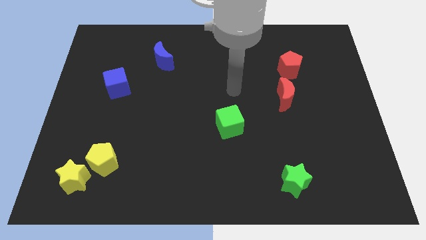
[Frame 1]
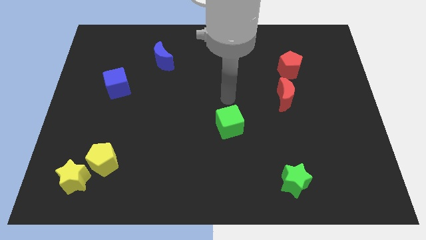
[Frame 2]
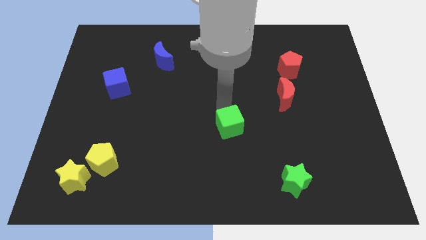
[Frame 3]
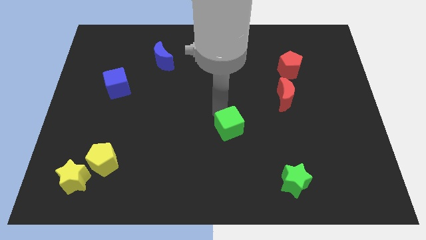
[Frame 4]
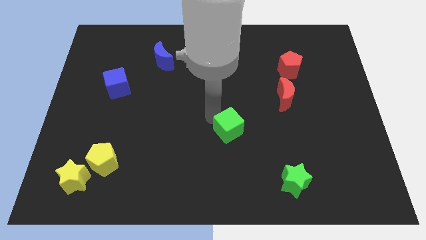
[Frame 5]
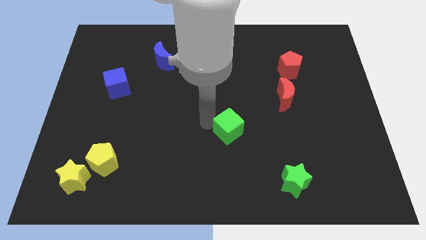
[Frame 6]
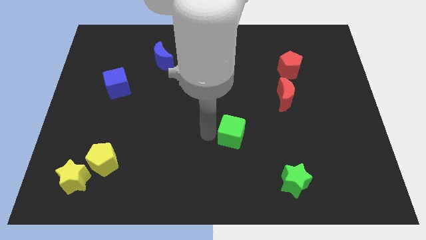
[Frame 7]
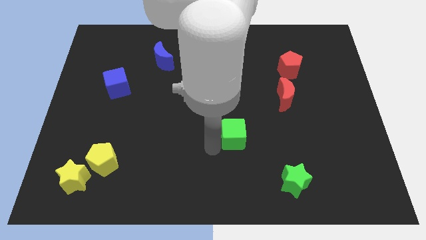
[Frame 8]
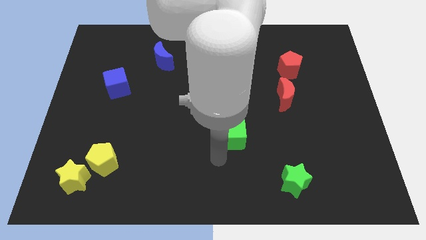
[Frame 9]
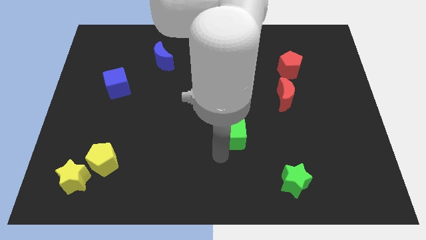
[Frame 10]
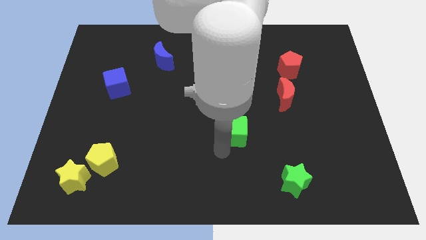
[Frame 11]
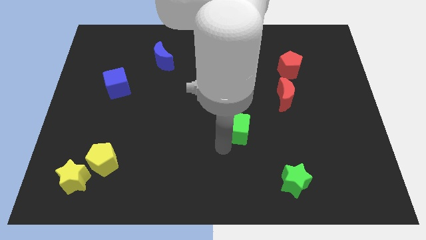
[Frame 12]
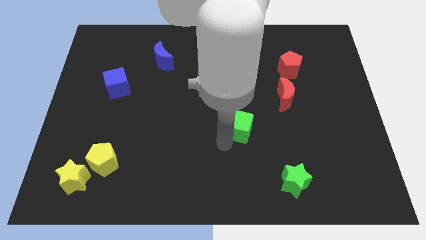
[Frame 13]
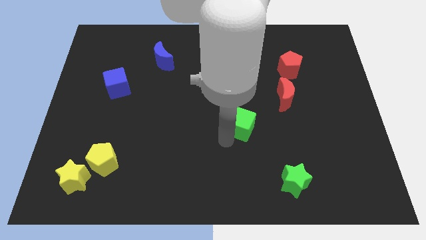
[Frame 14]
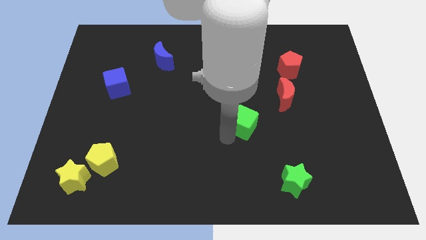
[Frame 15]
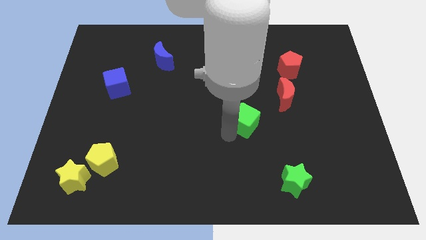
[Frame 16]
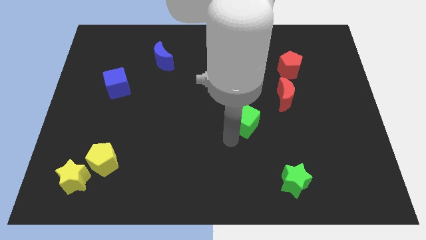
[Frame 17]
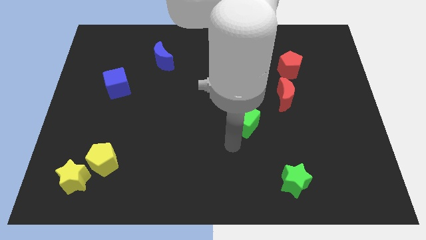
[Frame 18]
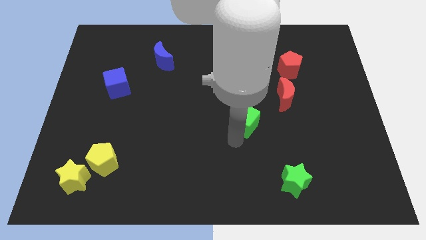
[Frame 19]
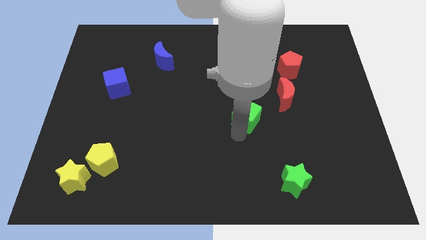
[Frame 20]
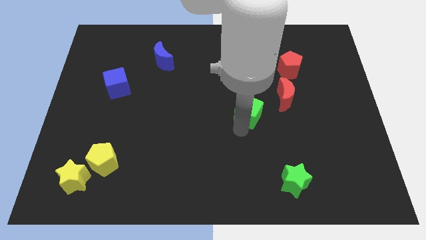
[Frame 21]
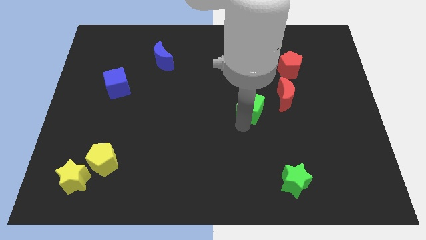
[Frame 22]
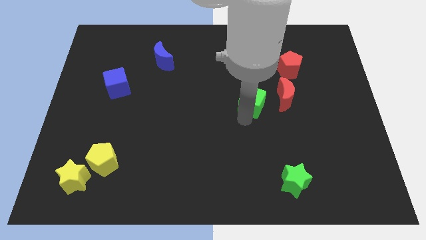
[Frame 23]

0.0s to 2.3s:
slide the green cube a little bit upwards and to the right diagonally

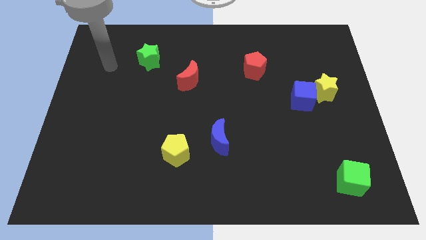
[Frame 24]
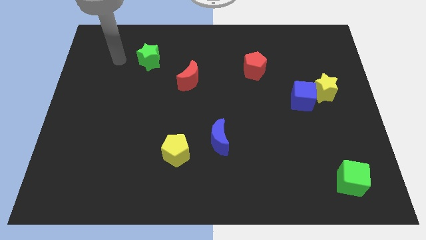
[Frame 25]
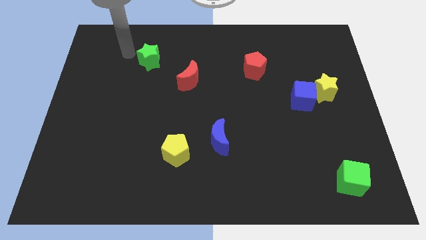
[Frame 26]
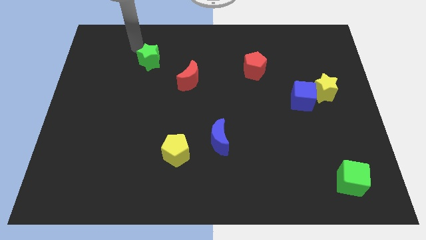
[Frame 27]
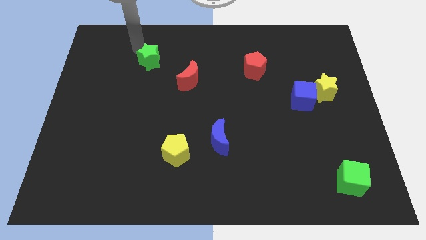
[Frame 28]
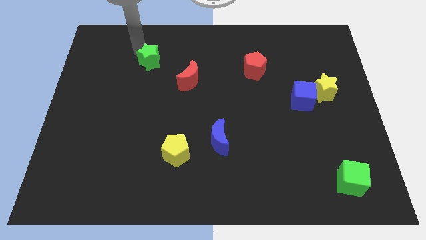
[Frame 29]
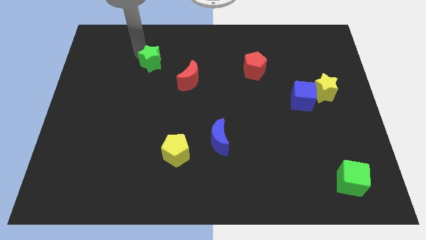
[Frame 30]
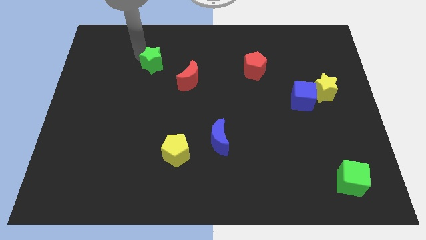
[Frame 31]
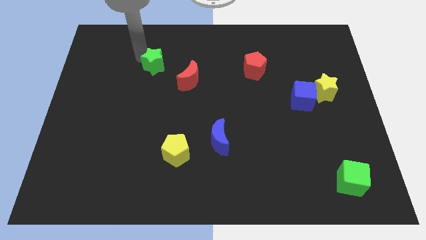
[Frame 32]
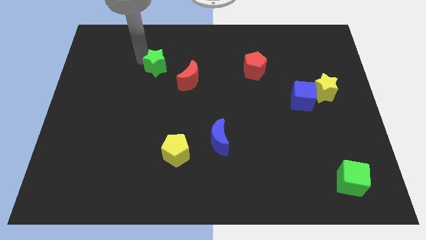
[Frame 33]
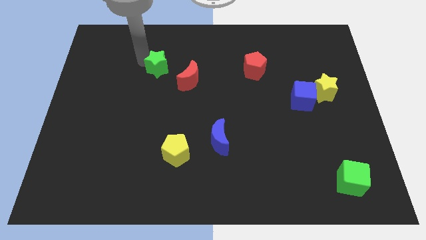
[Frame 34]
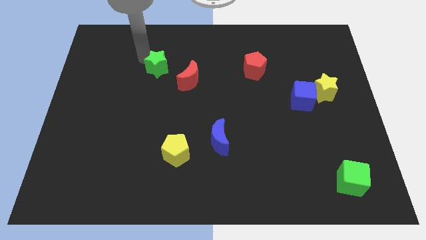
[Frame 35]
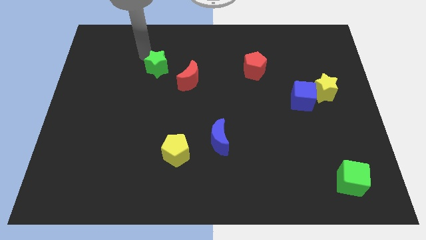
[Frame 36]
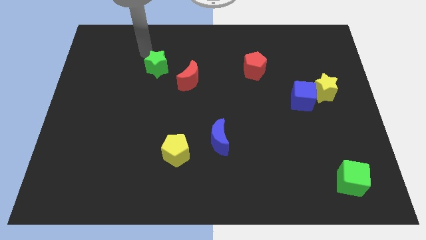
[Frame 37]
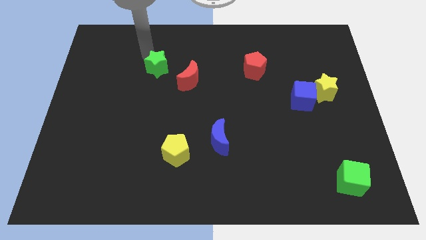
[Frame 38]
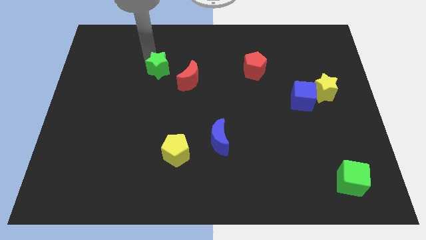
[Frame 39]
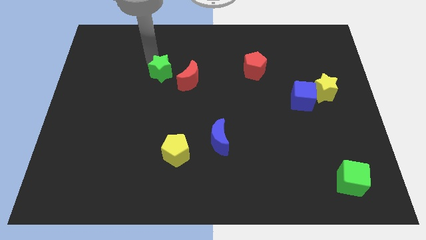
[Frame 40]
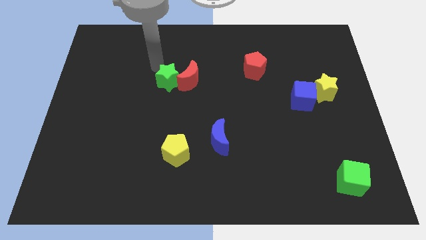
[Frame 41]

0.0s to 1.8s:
push the green star a little bit down and then to the right

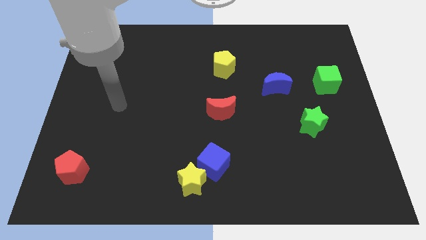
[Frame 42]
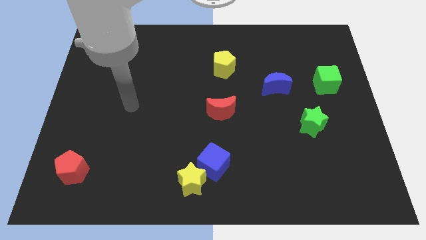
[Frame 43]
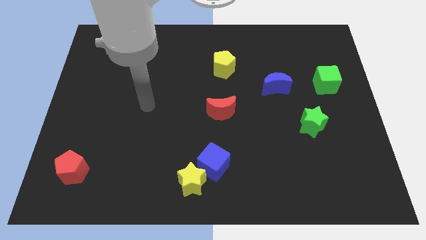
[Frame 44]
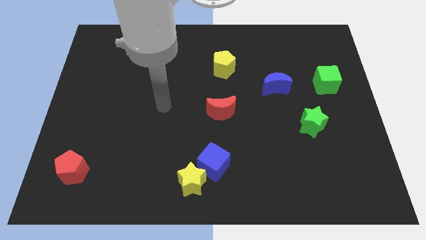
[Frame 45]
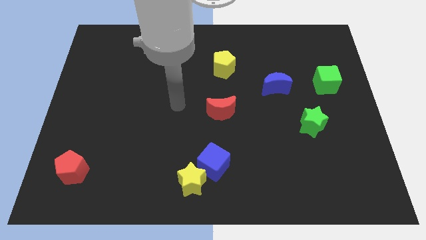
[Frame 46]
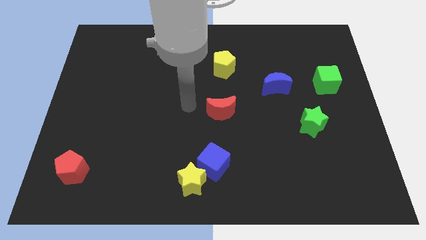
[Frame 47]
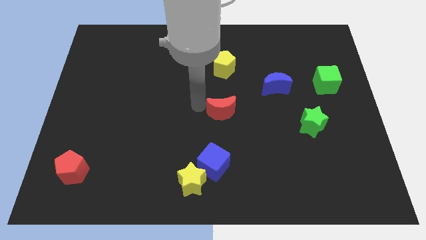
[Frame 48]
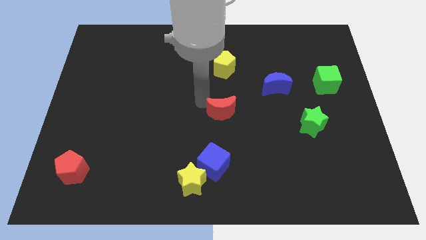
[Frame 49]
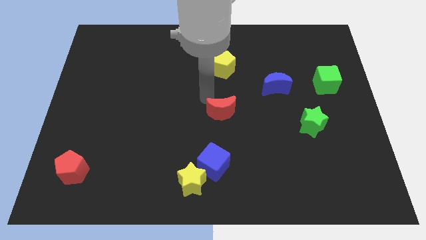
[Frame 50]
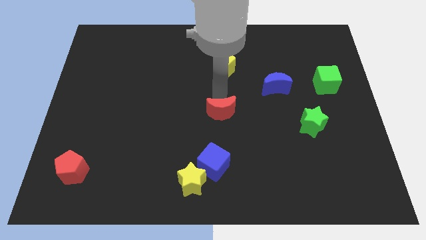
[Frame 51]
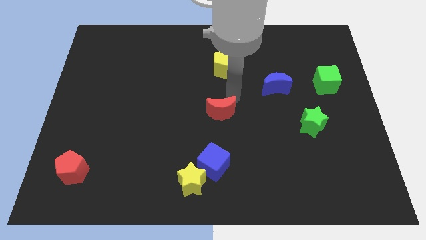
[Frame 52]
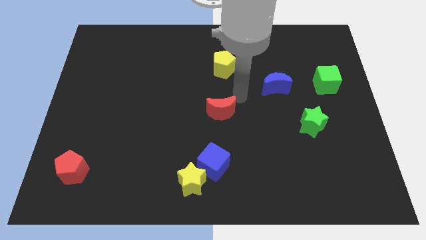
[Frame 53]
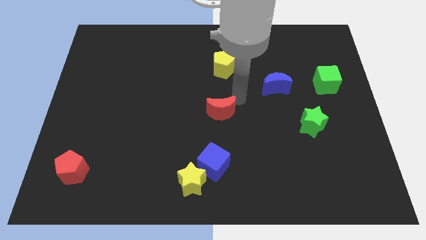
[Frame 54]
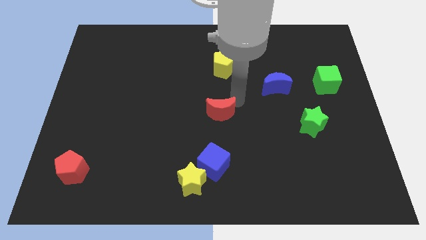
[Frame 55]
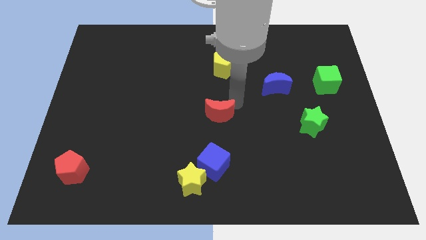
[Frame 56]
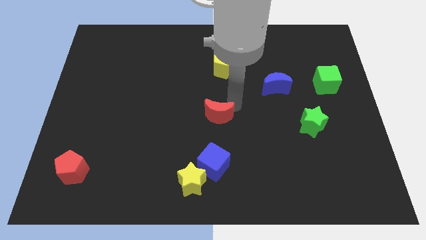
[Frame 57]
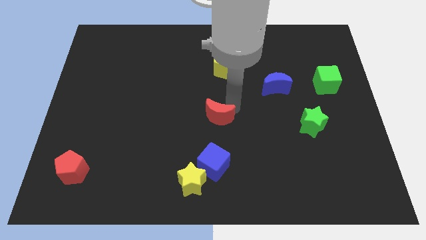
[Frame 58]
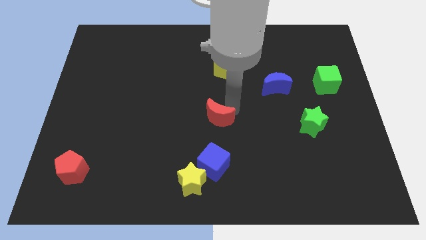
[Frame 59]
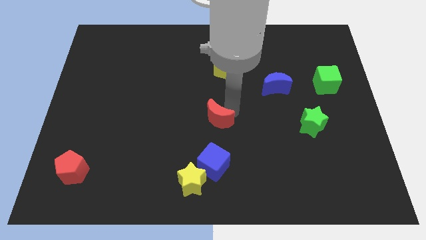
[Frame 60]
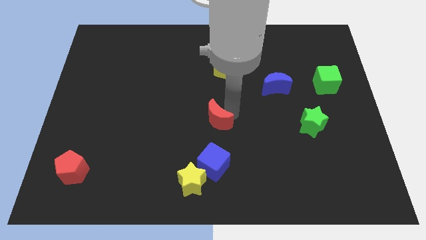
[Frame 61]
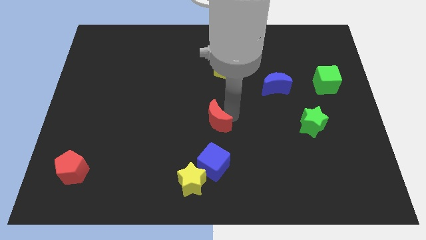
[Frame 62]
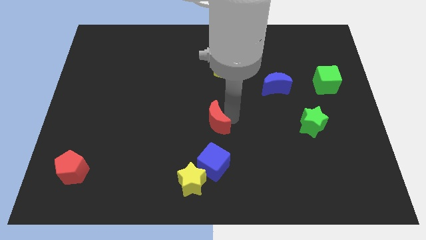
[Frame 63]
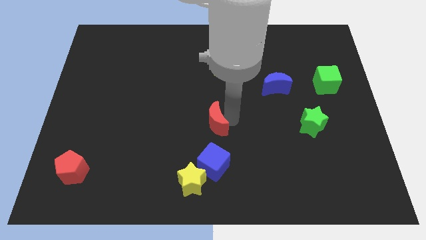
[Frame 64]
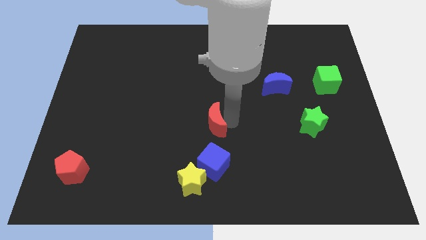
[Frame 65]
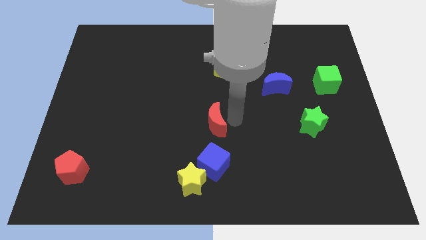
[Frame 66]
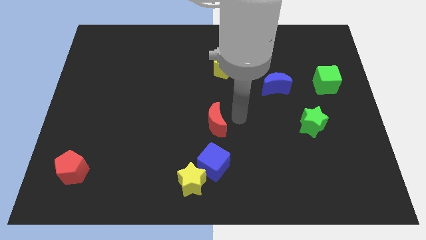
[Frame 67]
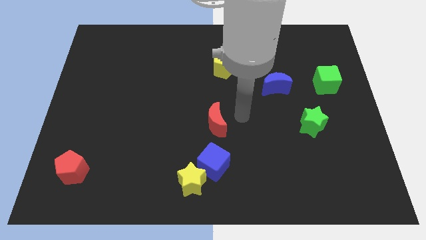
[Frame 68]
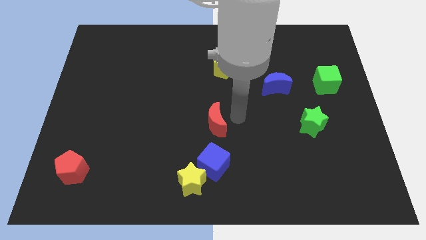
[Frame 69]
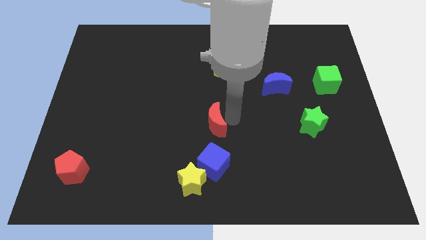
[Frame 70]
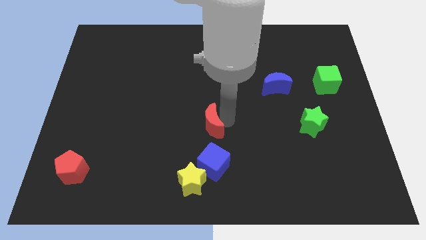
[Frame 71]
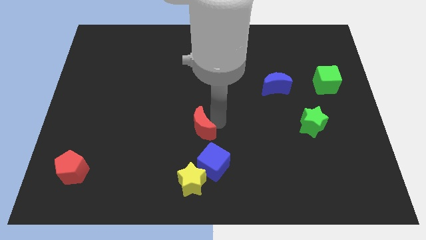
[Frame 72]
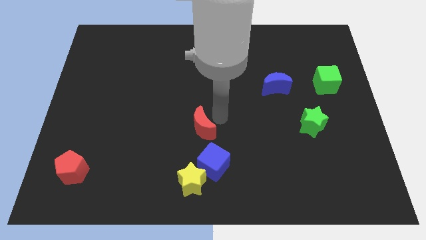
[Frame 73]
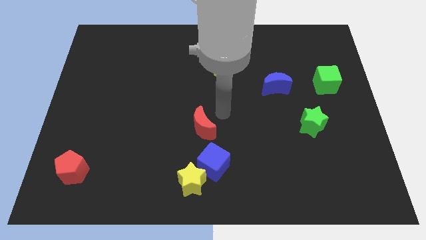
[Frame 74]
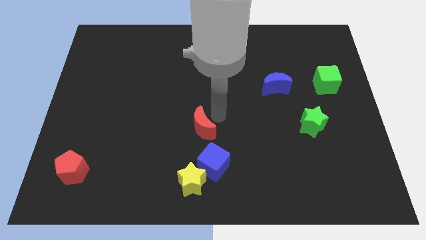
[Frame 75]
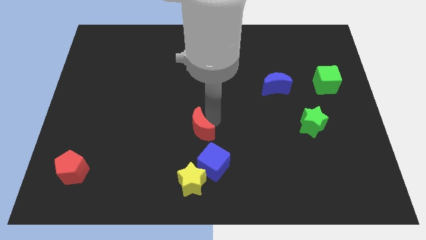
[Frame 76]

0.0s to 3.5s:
slightly move the red moon downwards and then left

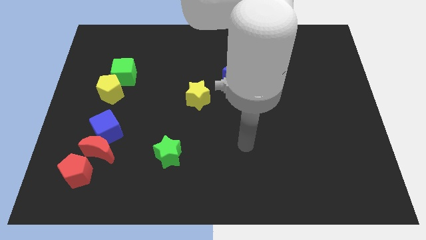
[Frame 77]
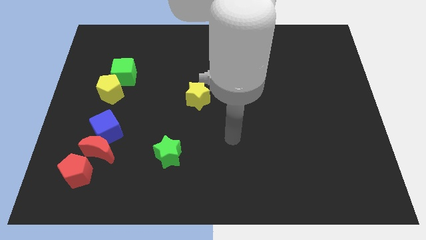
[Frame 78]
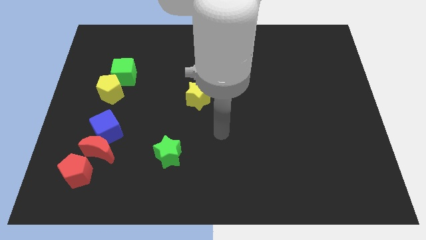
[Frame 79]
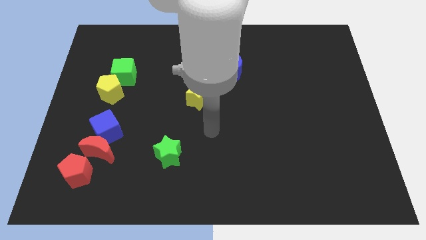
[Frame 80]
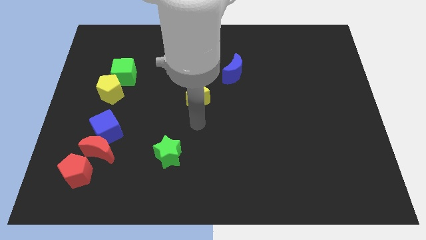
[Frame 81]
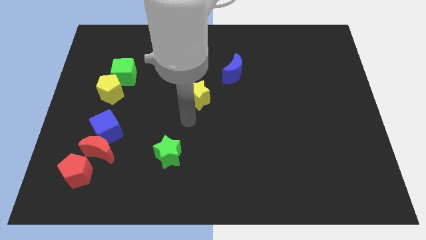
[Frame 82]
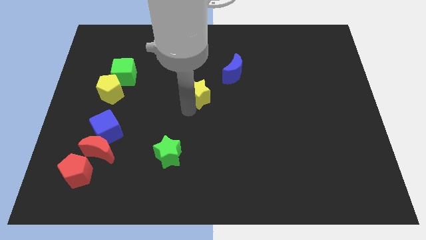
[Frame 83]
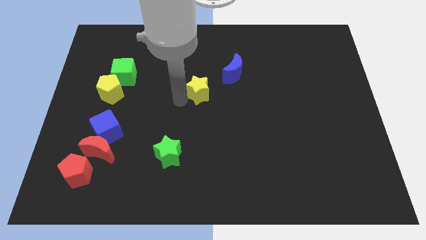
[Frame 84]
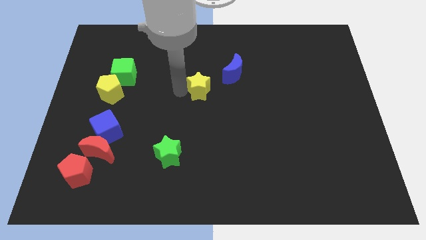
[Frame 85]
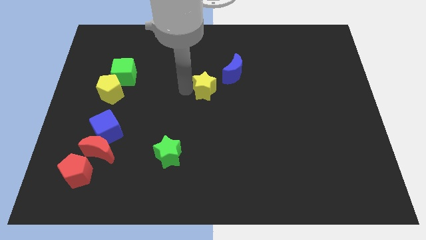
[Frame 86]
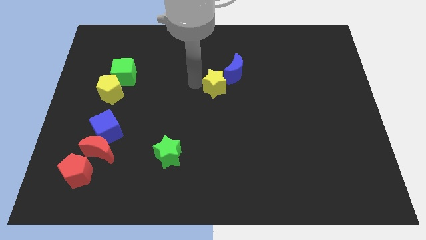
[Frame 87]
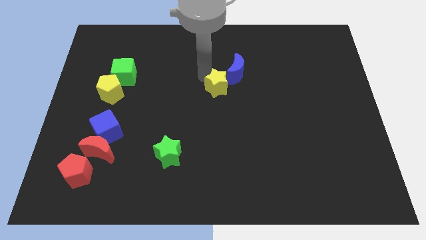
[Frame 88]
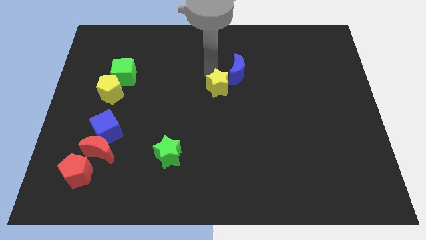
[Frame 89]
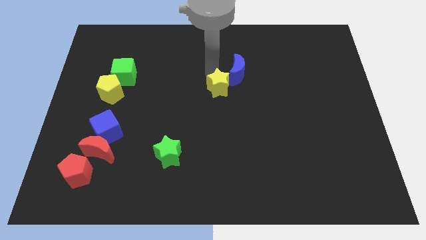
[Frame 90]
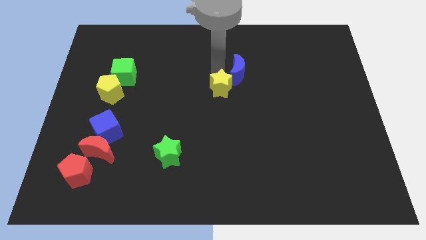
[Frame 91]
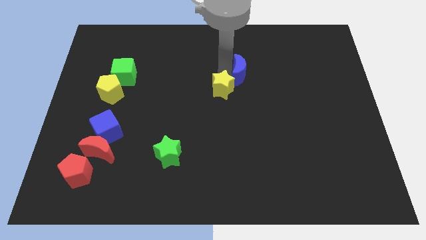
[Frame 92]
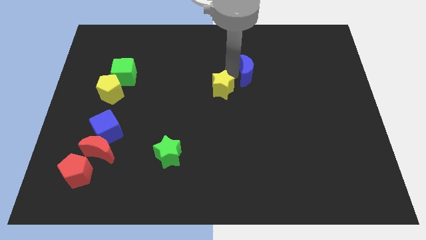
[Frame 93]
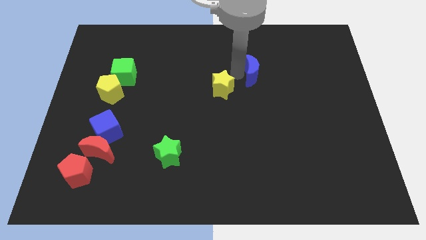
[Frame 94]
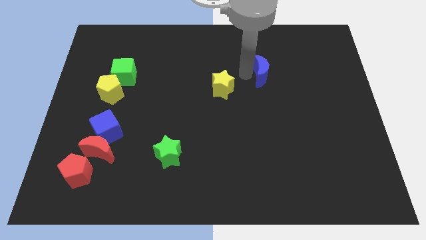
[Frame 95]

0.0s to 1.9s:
slide the blue moon a little bit right
